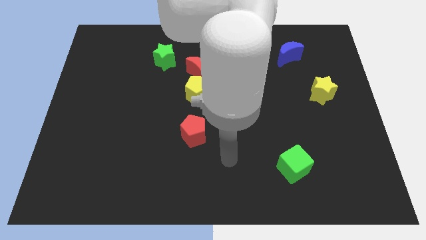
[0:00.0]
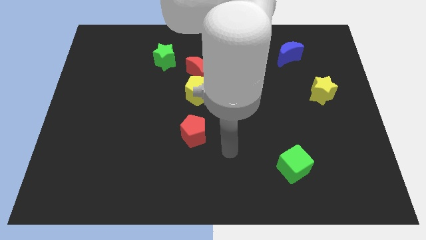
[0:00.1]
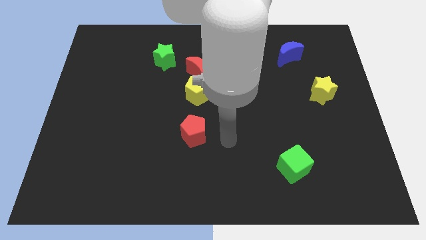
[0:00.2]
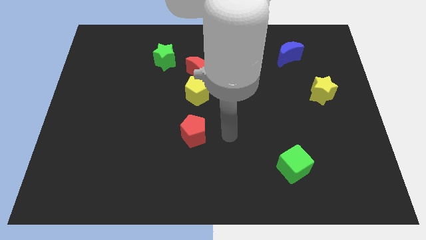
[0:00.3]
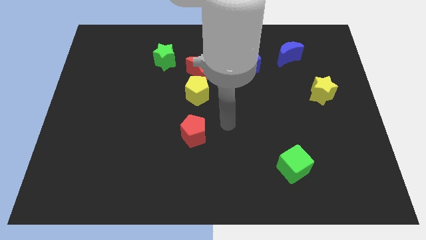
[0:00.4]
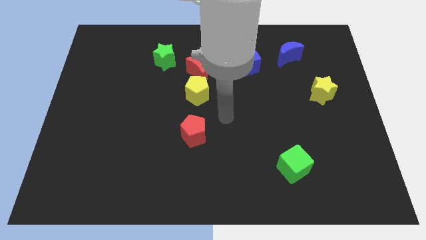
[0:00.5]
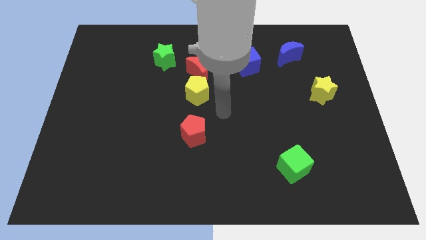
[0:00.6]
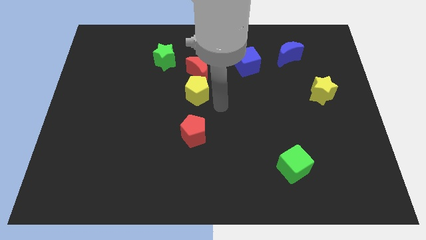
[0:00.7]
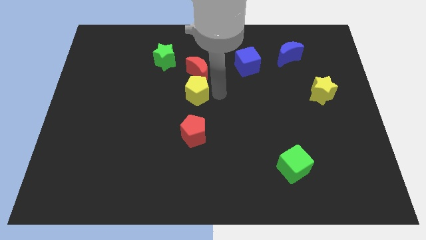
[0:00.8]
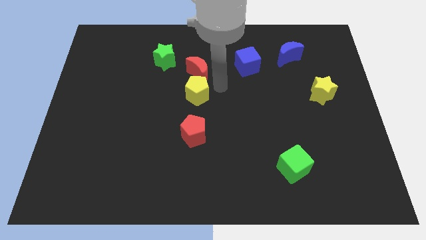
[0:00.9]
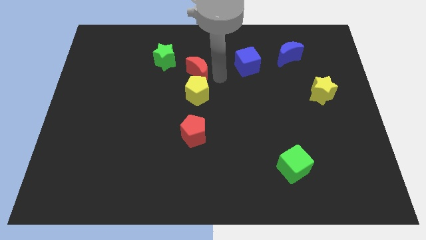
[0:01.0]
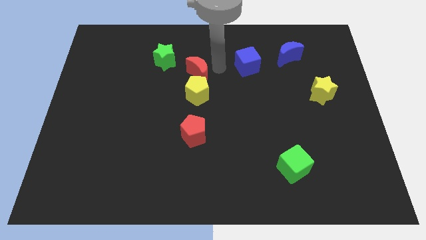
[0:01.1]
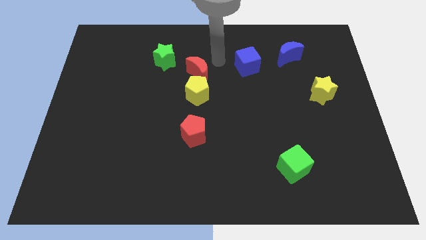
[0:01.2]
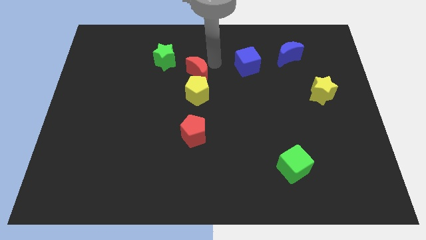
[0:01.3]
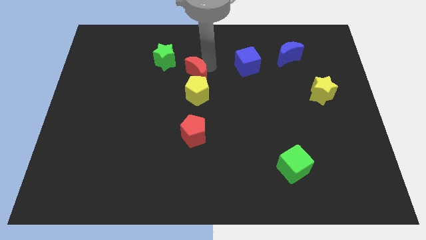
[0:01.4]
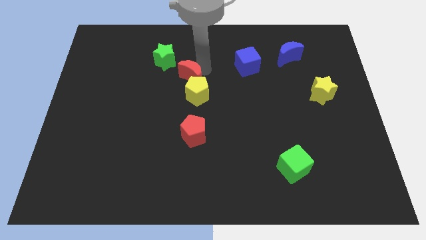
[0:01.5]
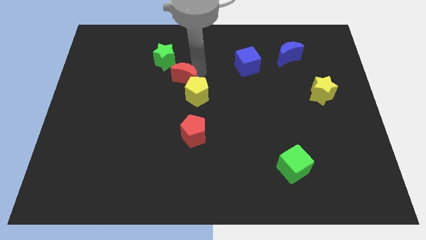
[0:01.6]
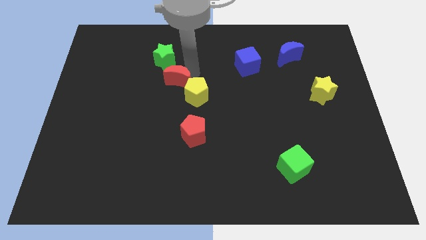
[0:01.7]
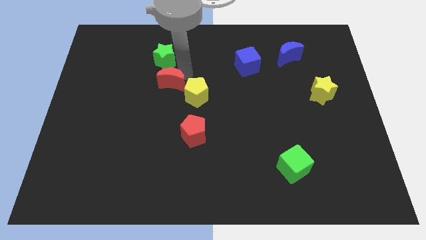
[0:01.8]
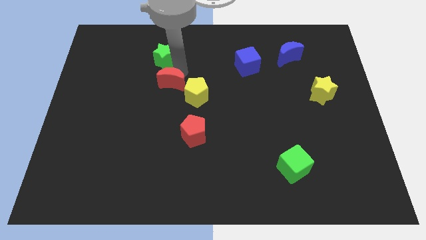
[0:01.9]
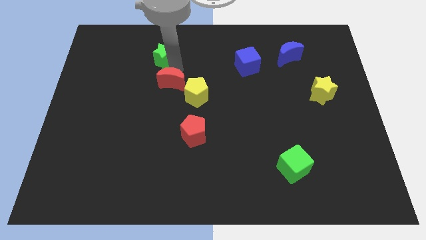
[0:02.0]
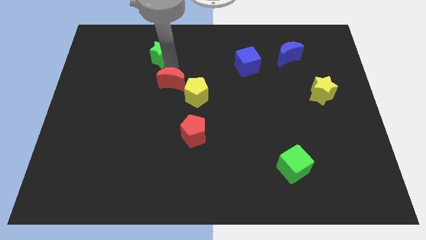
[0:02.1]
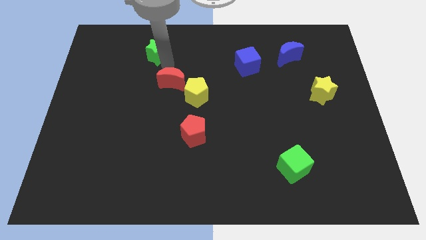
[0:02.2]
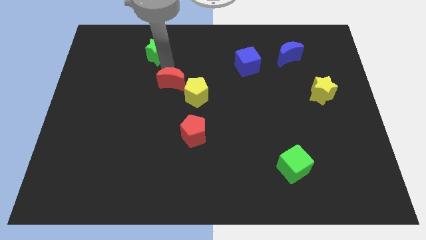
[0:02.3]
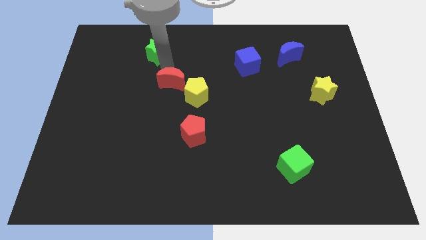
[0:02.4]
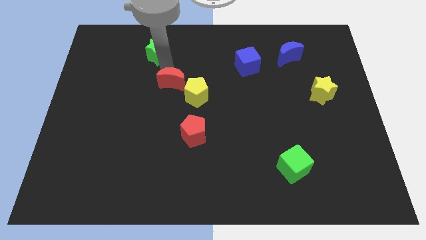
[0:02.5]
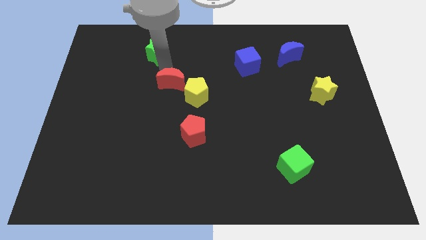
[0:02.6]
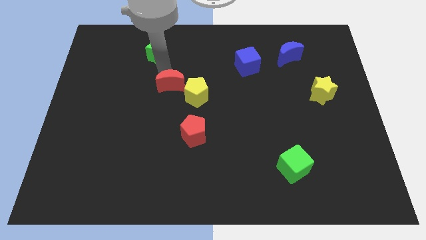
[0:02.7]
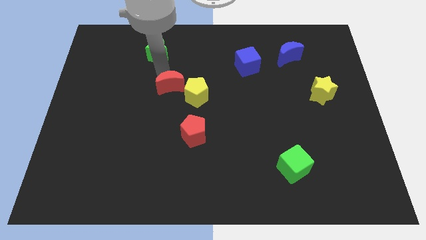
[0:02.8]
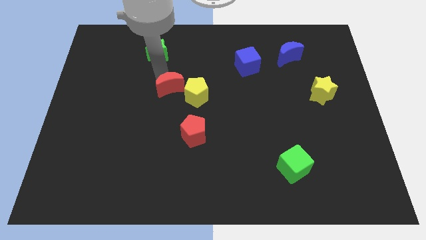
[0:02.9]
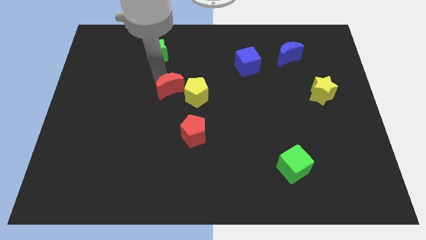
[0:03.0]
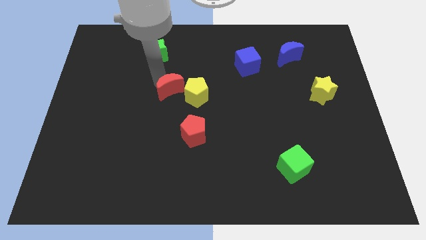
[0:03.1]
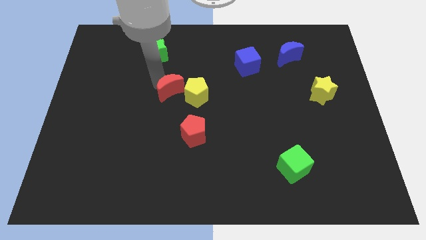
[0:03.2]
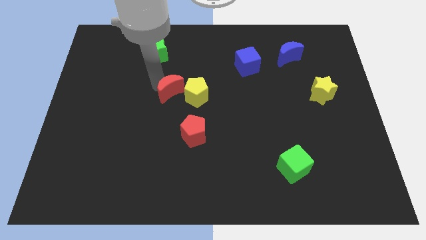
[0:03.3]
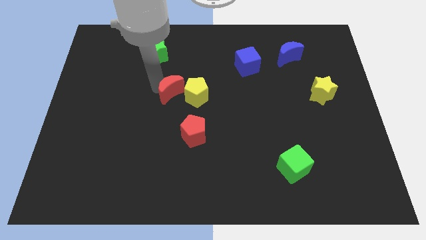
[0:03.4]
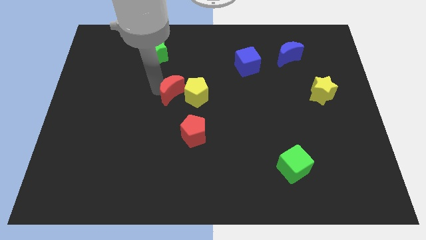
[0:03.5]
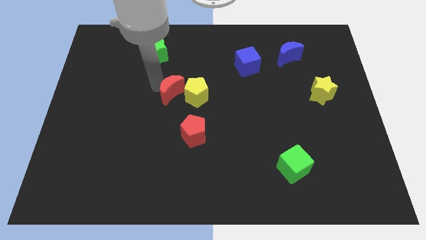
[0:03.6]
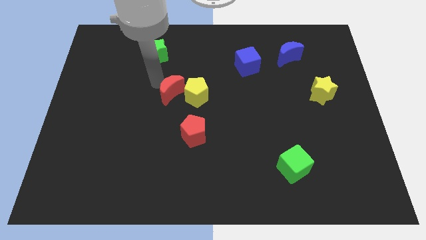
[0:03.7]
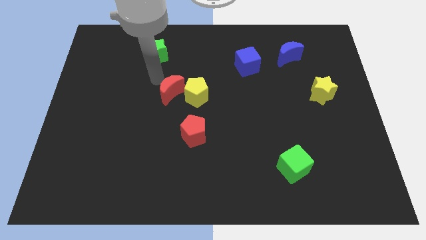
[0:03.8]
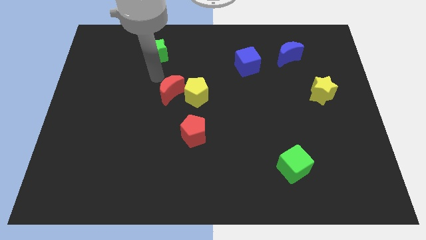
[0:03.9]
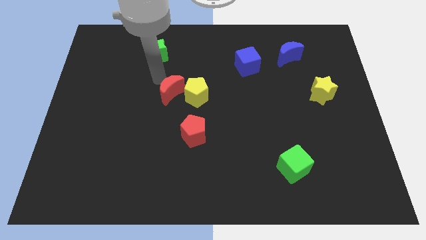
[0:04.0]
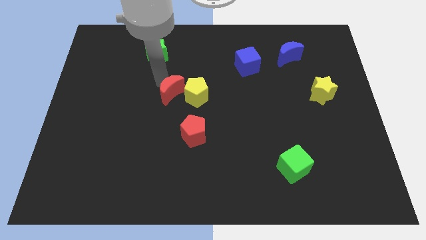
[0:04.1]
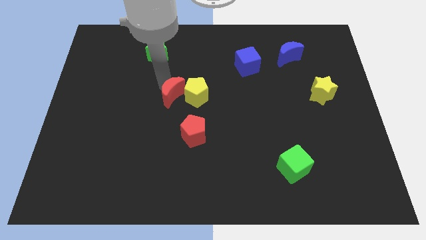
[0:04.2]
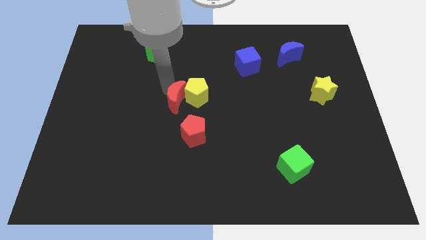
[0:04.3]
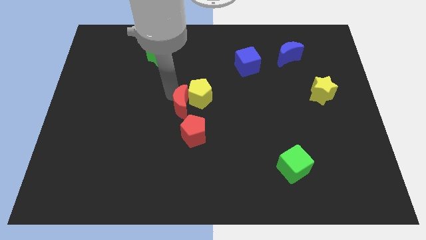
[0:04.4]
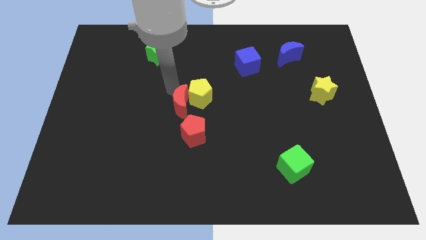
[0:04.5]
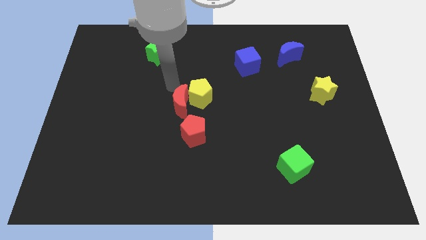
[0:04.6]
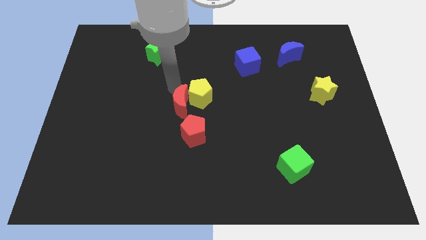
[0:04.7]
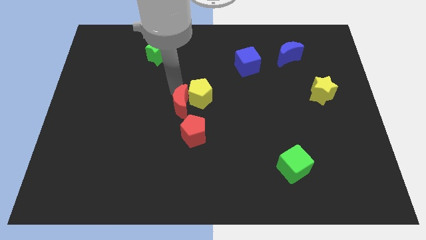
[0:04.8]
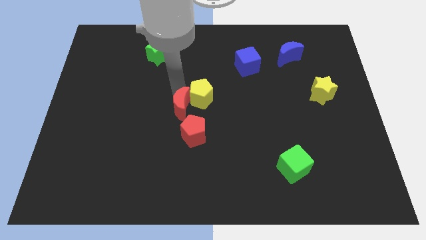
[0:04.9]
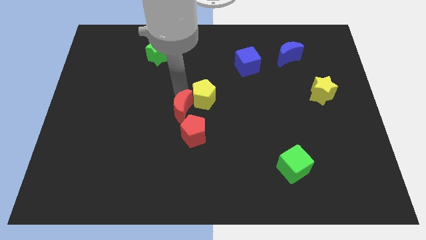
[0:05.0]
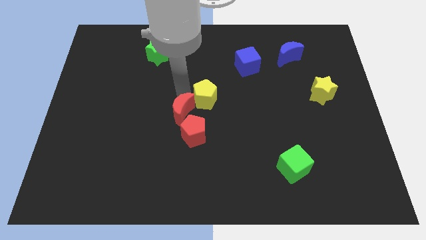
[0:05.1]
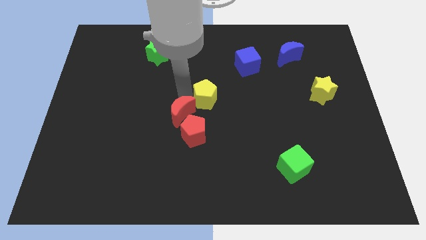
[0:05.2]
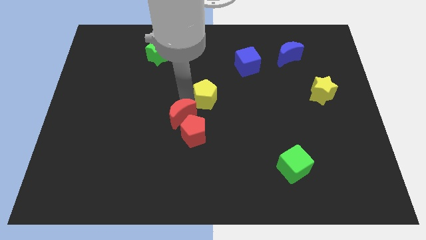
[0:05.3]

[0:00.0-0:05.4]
put the red moon next to the red pentagon

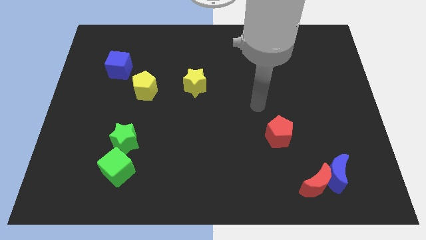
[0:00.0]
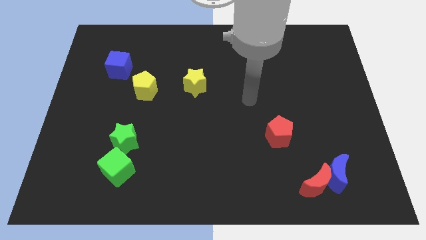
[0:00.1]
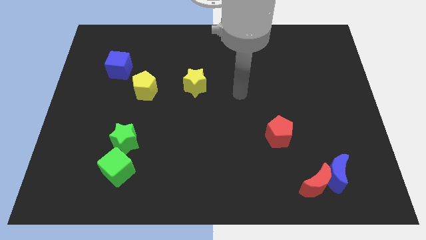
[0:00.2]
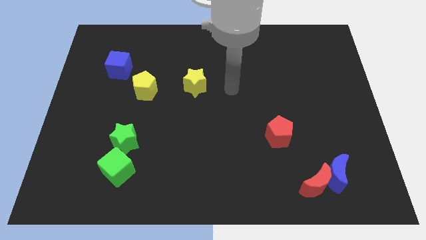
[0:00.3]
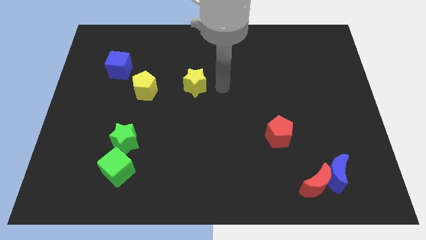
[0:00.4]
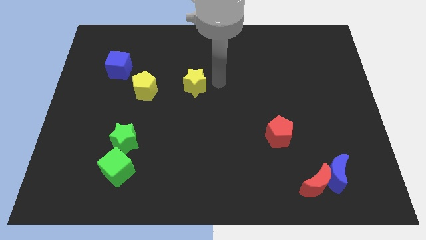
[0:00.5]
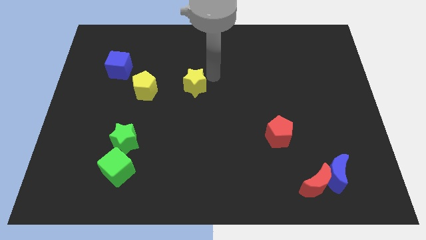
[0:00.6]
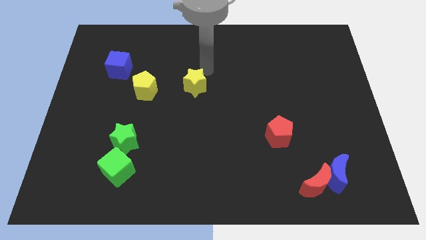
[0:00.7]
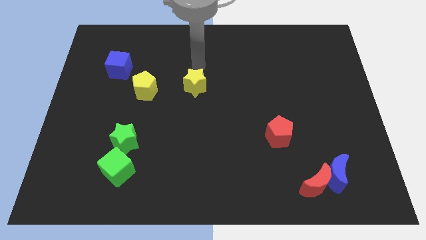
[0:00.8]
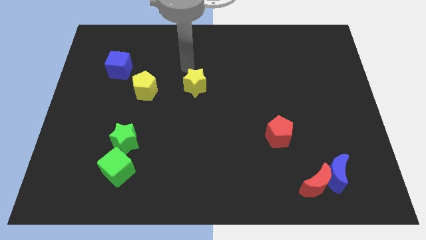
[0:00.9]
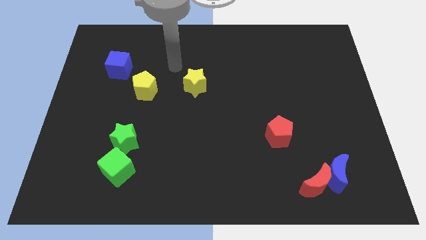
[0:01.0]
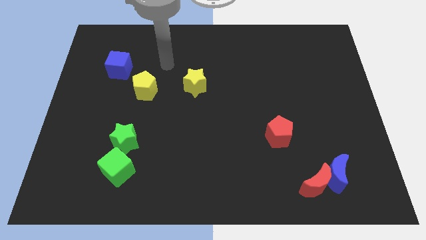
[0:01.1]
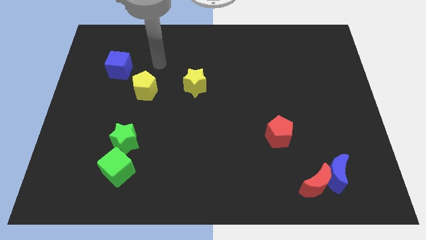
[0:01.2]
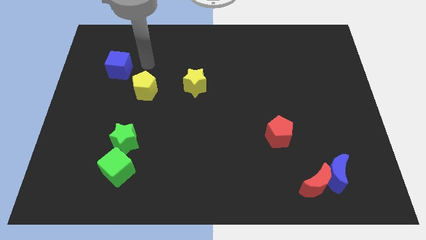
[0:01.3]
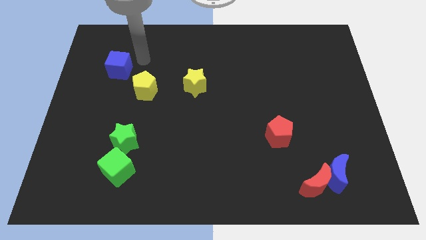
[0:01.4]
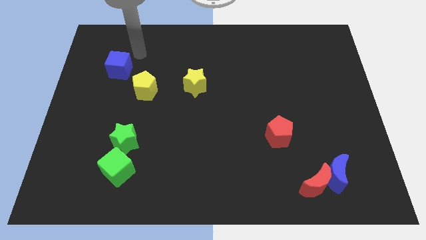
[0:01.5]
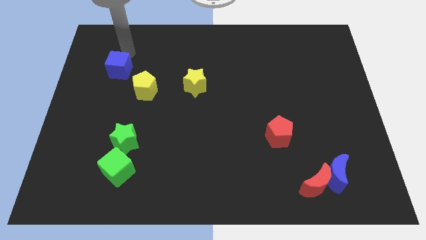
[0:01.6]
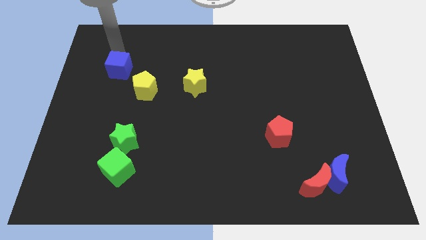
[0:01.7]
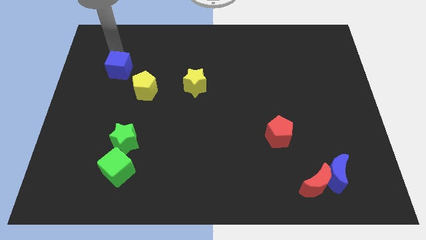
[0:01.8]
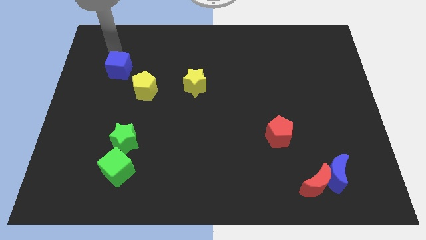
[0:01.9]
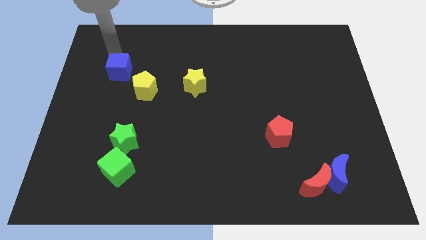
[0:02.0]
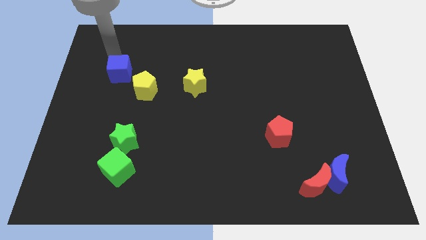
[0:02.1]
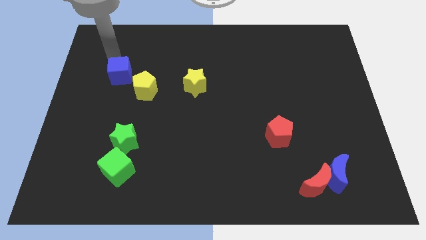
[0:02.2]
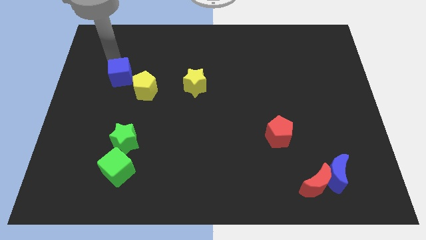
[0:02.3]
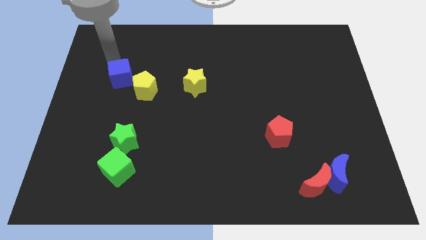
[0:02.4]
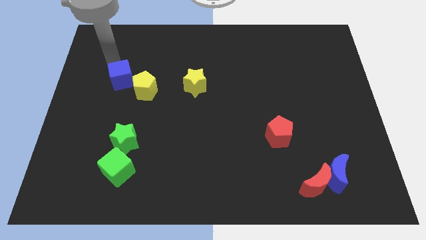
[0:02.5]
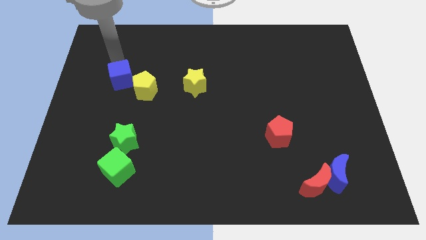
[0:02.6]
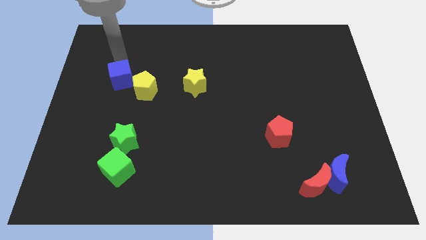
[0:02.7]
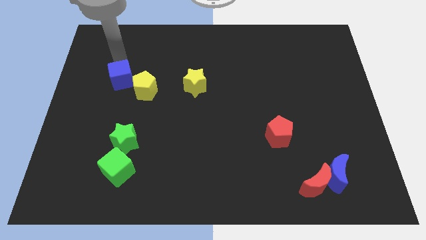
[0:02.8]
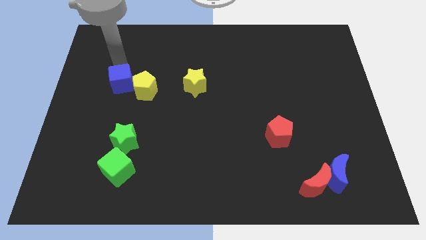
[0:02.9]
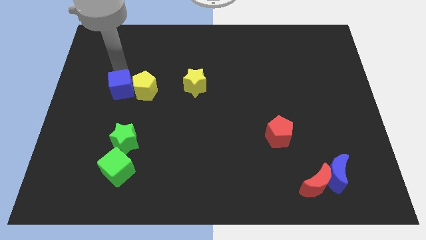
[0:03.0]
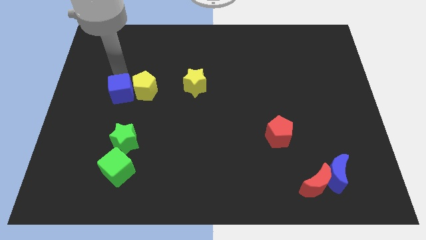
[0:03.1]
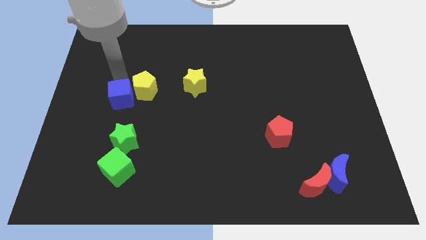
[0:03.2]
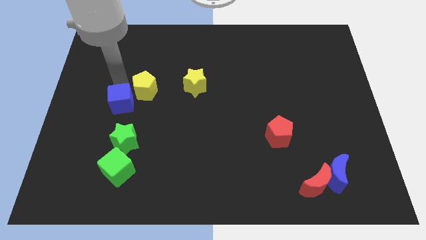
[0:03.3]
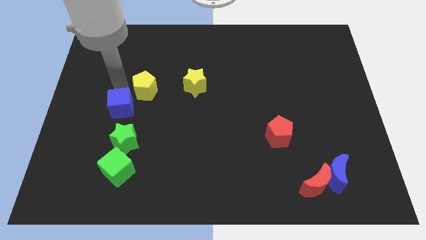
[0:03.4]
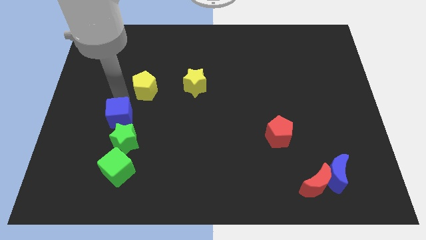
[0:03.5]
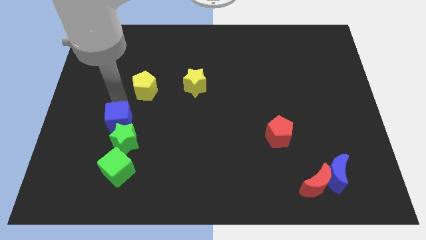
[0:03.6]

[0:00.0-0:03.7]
move the blue cube next to the green star
